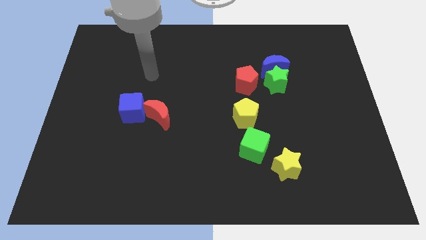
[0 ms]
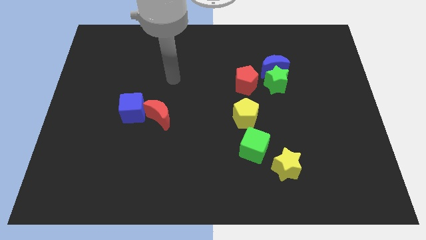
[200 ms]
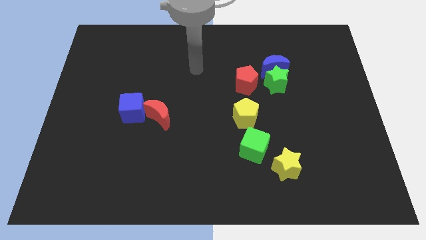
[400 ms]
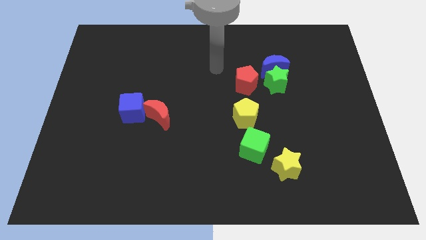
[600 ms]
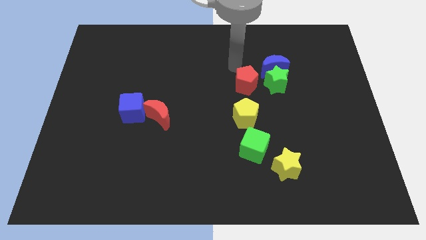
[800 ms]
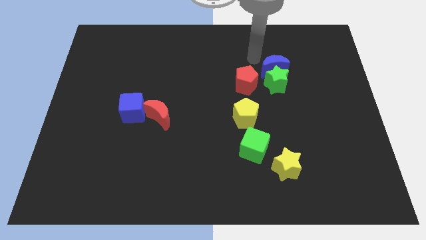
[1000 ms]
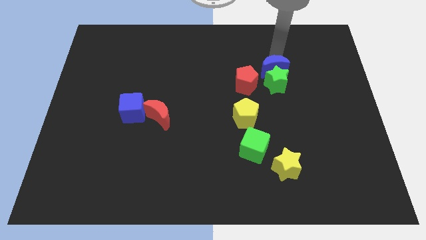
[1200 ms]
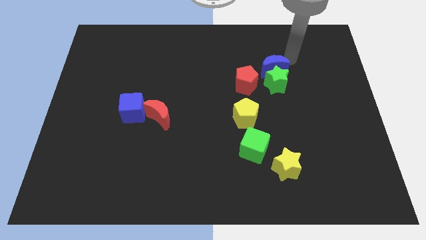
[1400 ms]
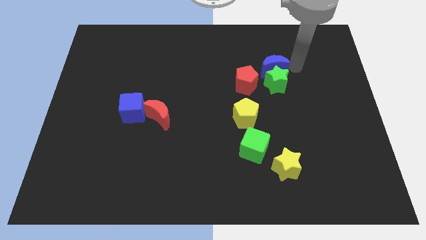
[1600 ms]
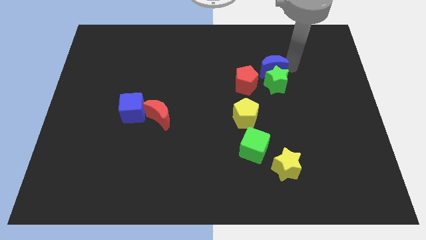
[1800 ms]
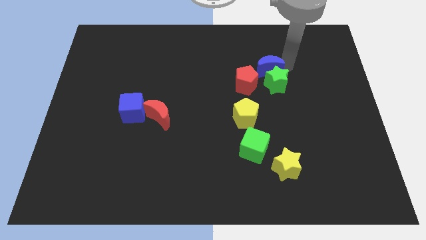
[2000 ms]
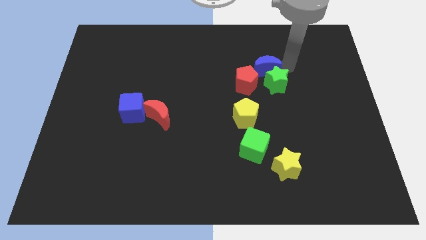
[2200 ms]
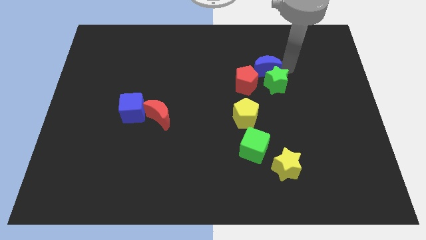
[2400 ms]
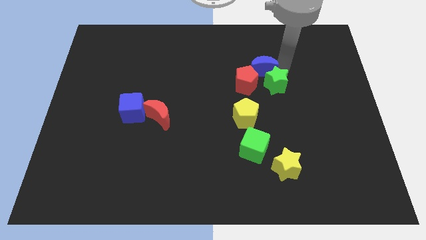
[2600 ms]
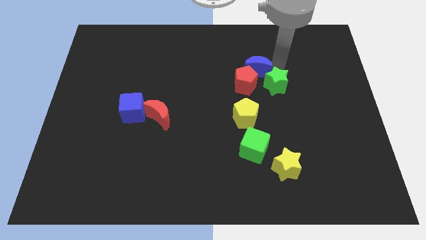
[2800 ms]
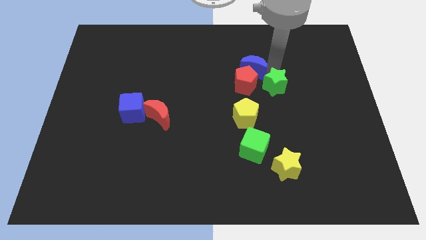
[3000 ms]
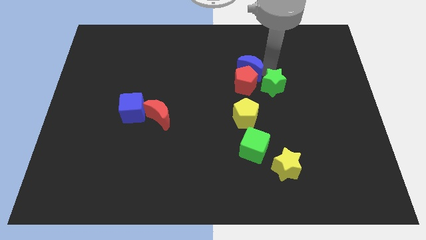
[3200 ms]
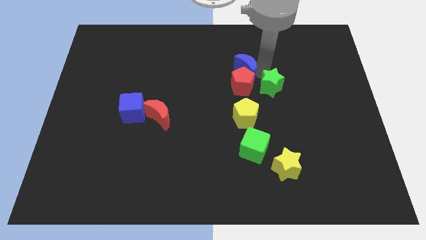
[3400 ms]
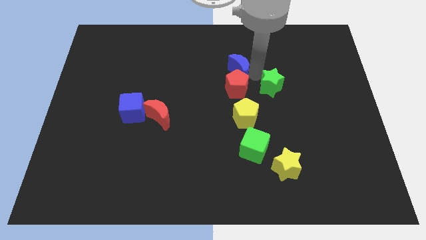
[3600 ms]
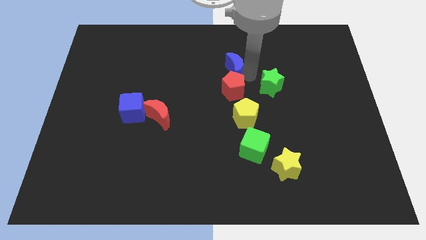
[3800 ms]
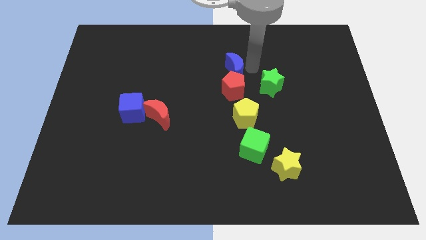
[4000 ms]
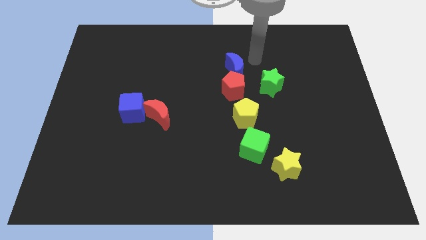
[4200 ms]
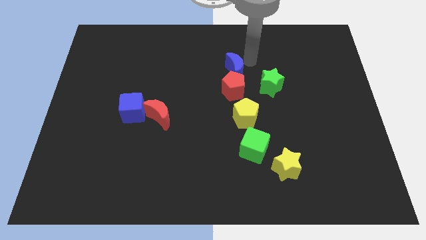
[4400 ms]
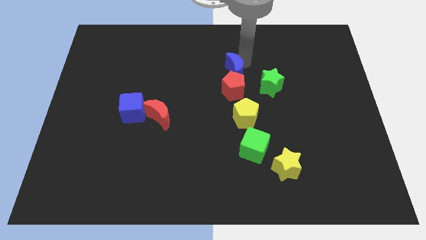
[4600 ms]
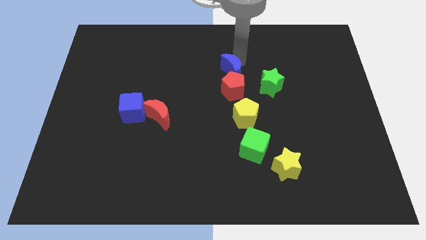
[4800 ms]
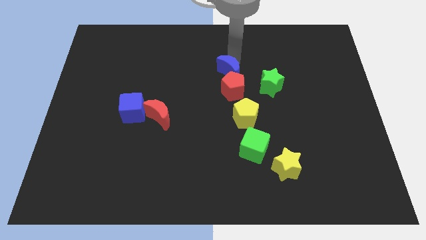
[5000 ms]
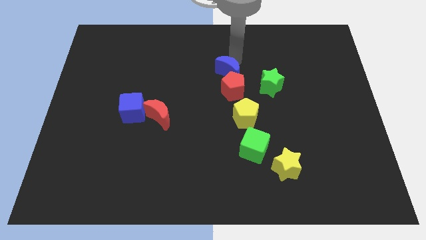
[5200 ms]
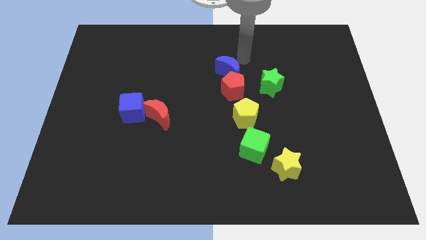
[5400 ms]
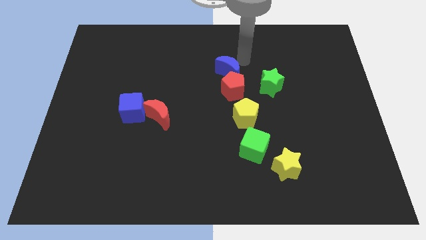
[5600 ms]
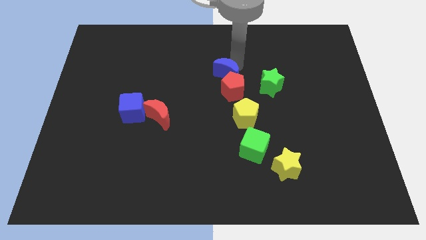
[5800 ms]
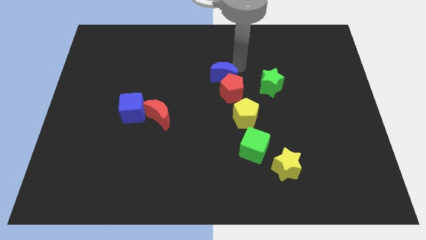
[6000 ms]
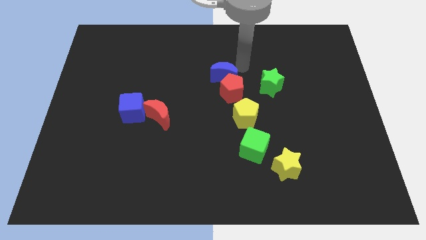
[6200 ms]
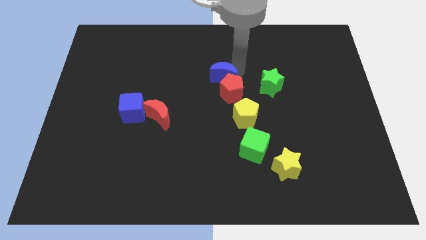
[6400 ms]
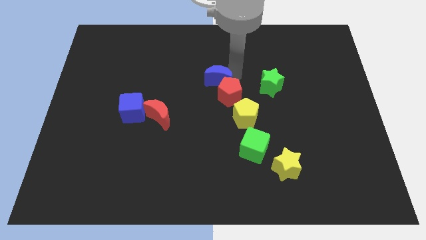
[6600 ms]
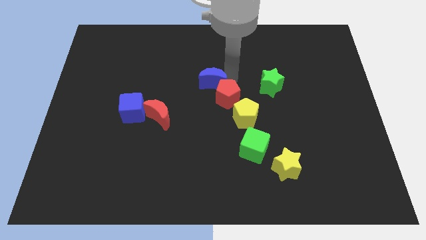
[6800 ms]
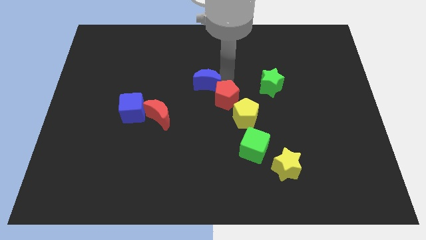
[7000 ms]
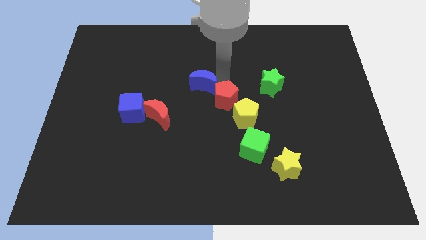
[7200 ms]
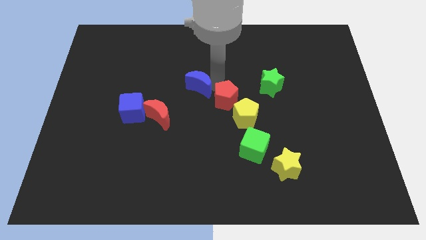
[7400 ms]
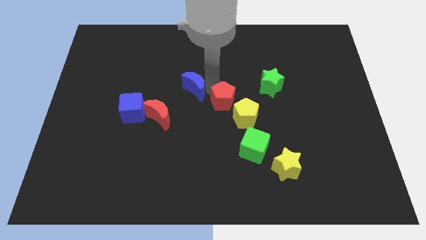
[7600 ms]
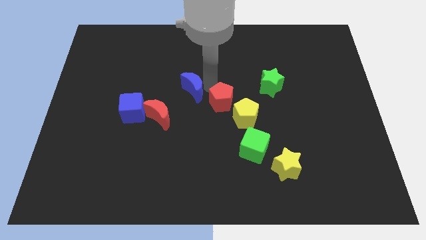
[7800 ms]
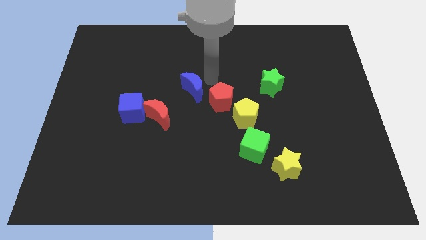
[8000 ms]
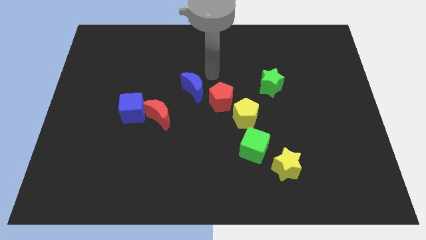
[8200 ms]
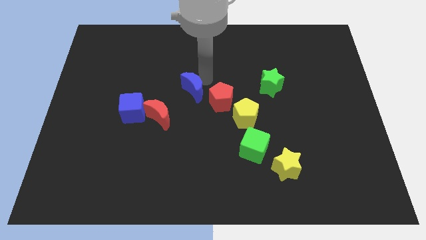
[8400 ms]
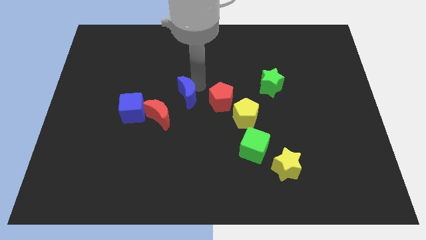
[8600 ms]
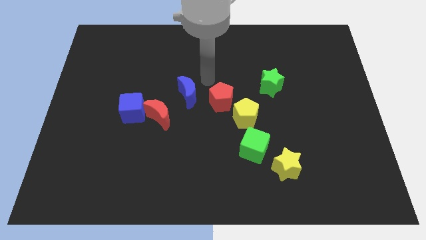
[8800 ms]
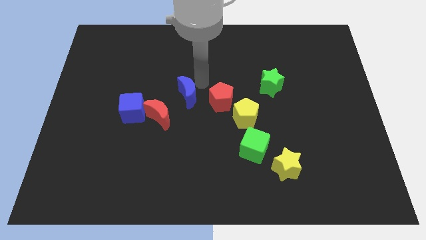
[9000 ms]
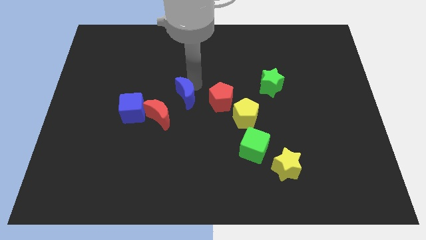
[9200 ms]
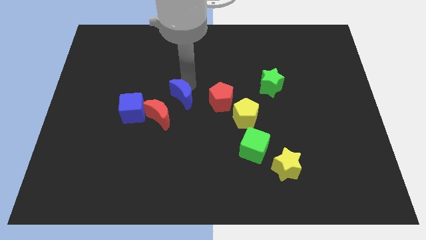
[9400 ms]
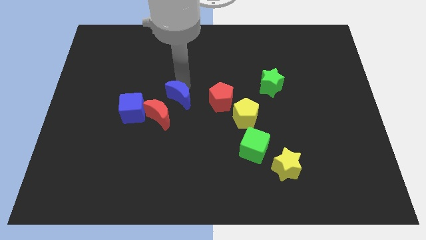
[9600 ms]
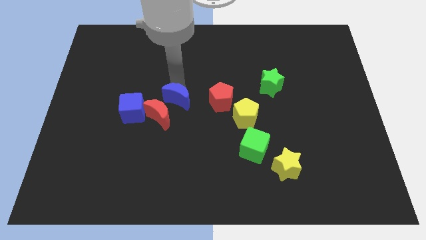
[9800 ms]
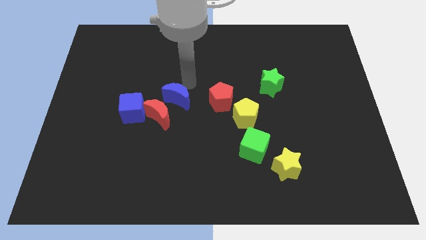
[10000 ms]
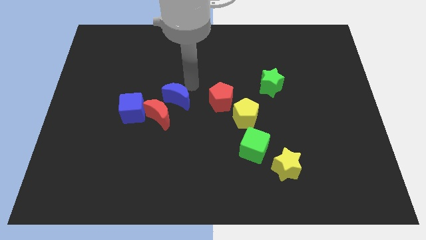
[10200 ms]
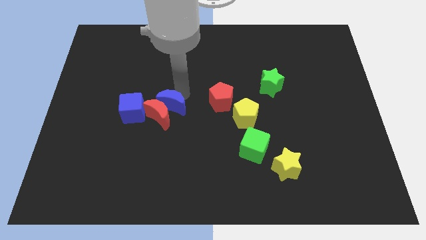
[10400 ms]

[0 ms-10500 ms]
push the blue moon next to the red moon

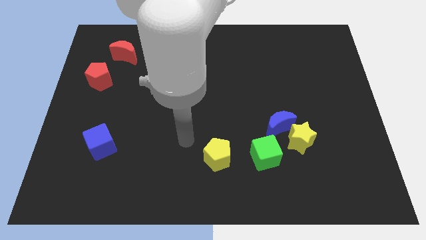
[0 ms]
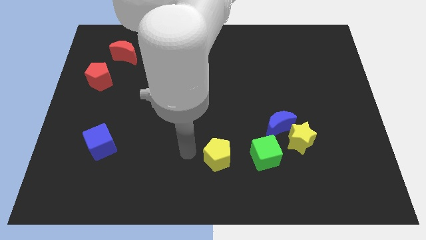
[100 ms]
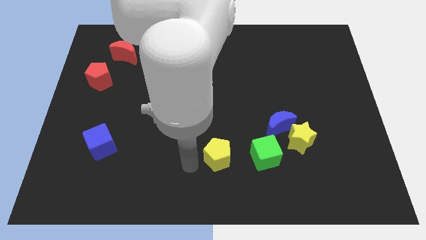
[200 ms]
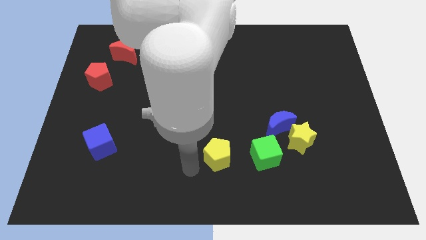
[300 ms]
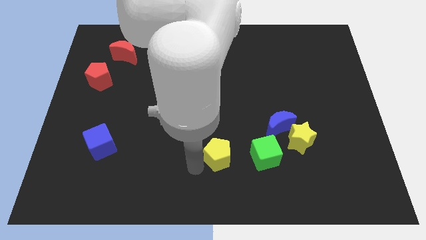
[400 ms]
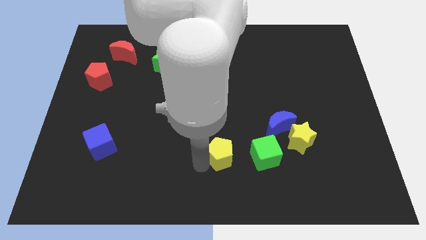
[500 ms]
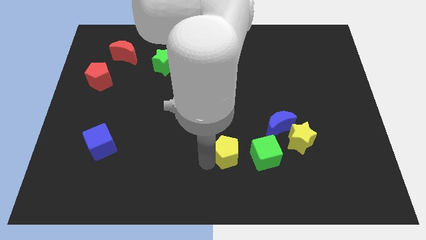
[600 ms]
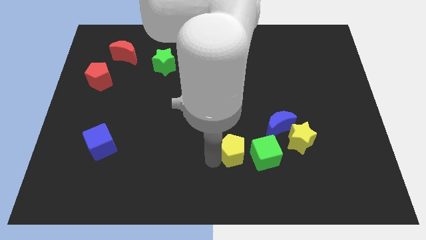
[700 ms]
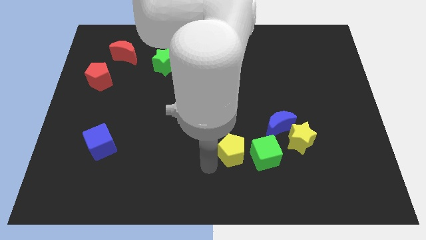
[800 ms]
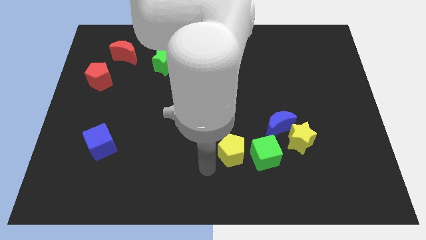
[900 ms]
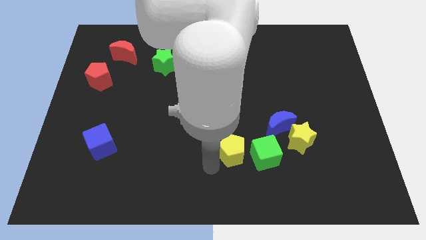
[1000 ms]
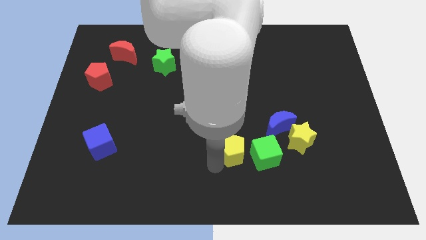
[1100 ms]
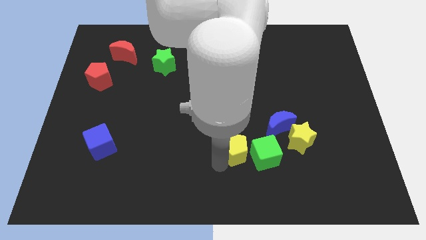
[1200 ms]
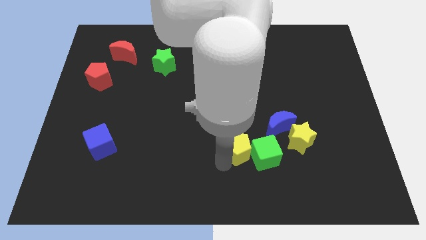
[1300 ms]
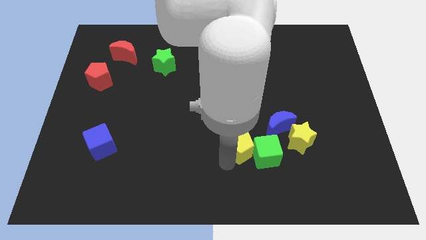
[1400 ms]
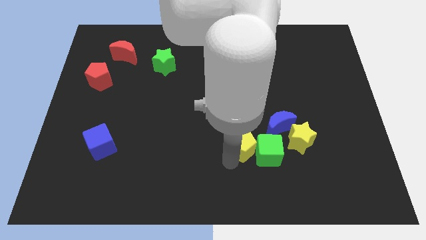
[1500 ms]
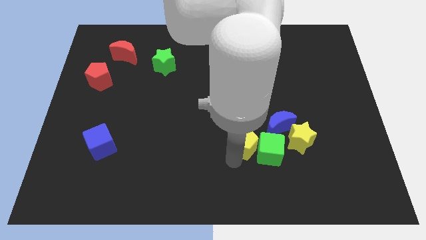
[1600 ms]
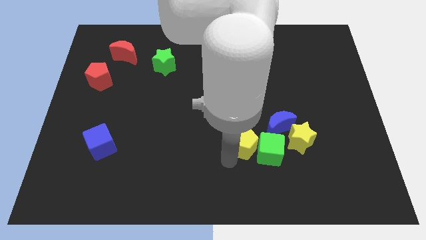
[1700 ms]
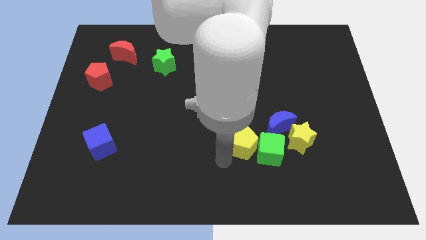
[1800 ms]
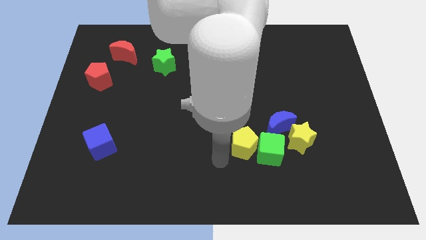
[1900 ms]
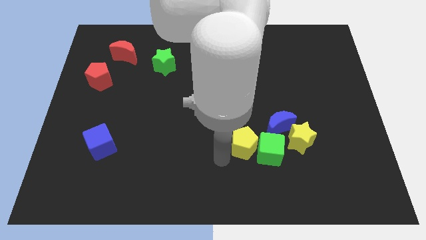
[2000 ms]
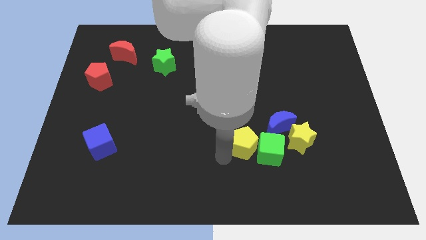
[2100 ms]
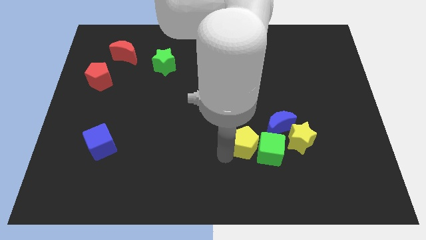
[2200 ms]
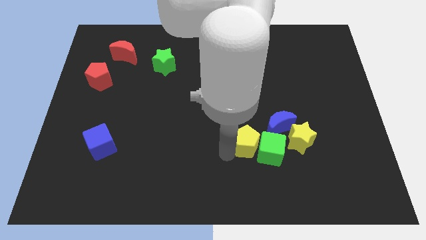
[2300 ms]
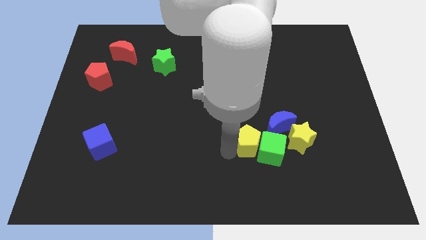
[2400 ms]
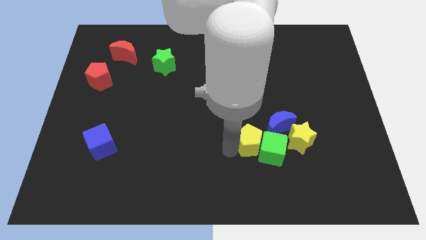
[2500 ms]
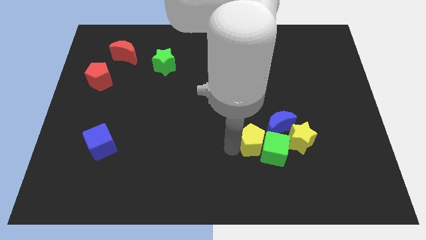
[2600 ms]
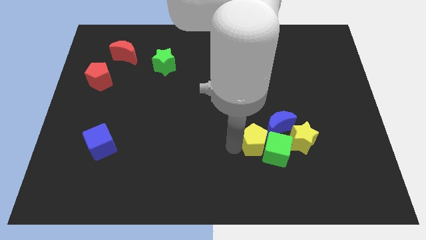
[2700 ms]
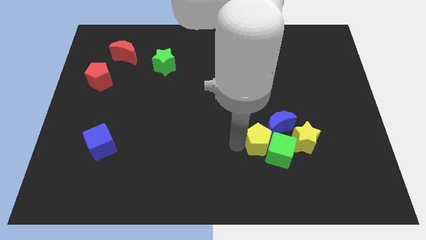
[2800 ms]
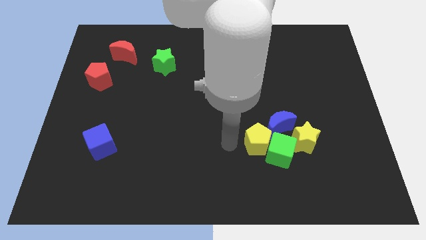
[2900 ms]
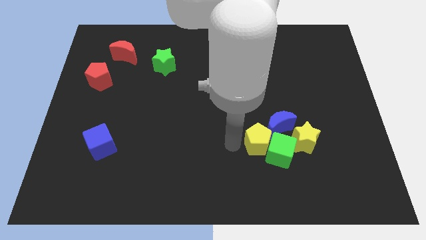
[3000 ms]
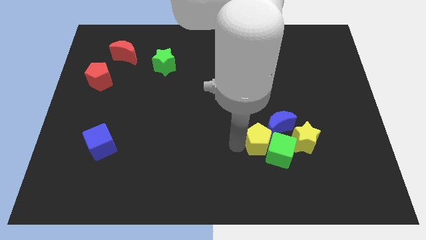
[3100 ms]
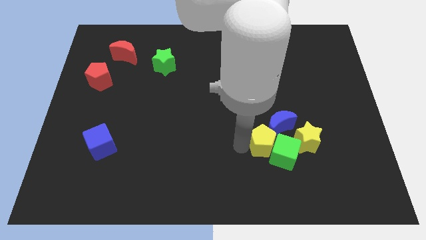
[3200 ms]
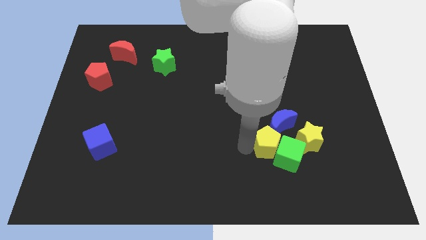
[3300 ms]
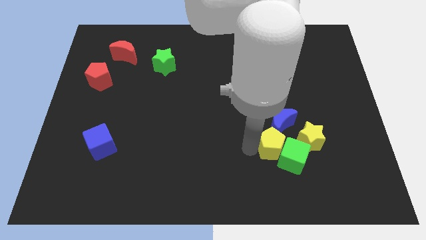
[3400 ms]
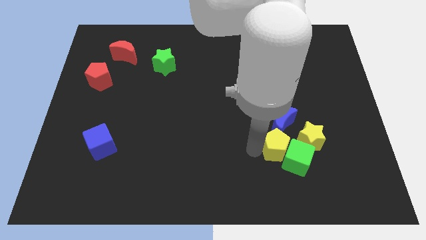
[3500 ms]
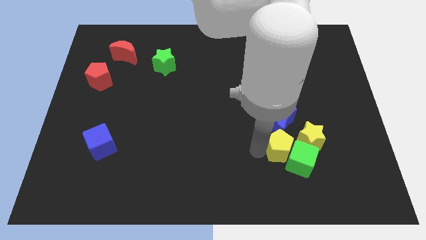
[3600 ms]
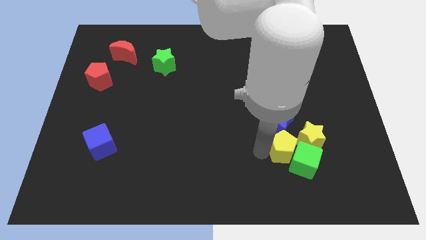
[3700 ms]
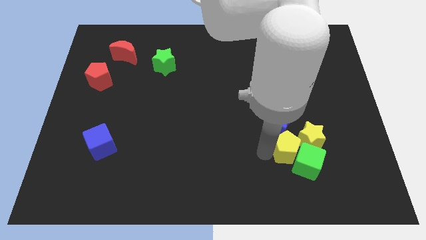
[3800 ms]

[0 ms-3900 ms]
push the yellow pentagon towards the yellow star
